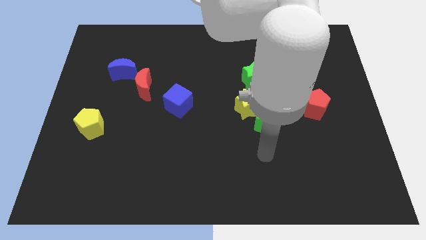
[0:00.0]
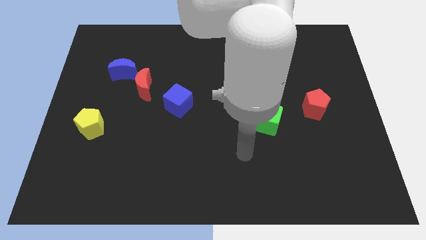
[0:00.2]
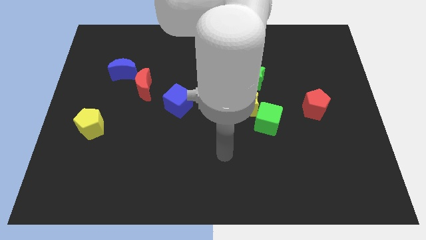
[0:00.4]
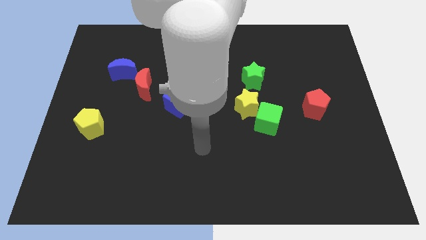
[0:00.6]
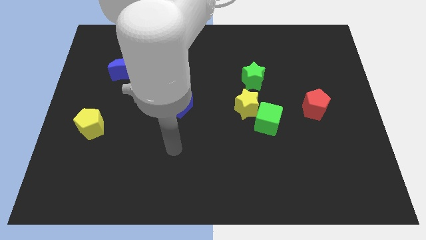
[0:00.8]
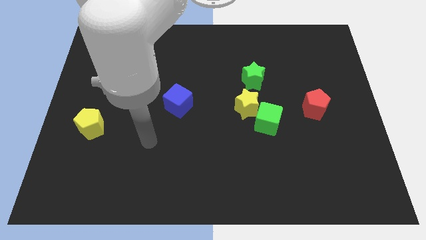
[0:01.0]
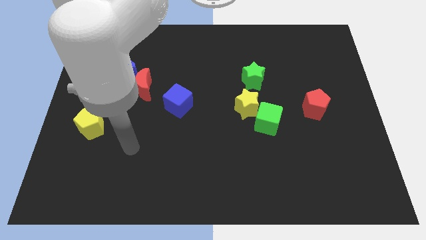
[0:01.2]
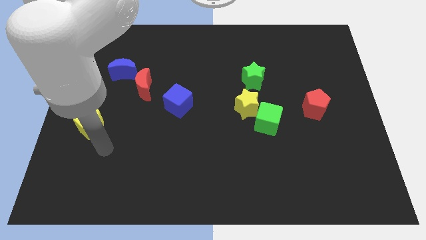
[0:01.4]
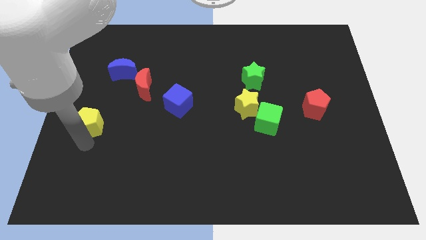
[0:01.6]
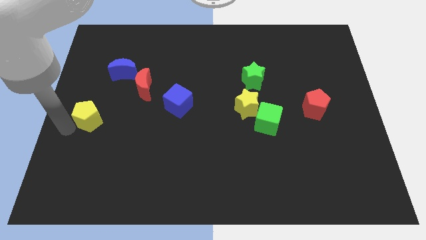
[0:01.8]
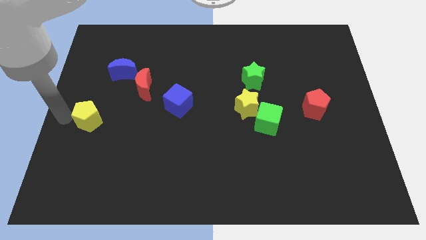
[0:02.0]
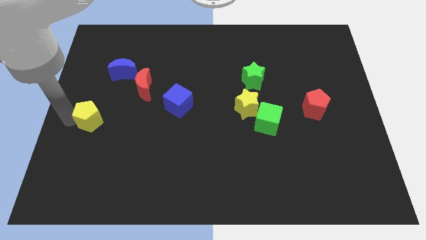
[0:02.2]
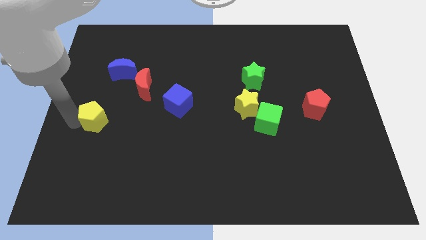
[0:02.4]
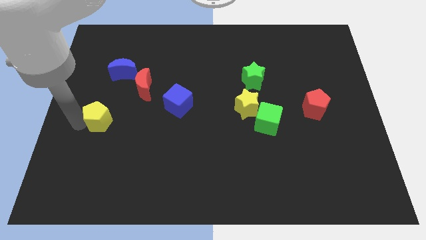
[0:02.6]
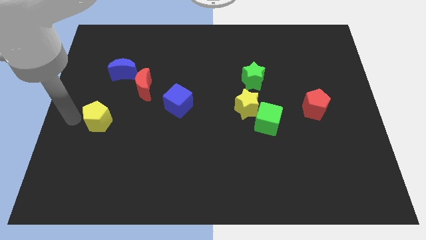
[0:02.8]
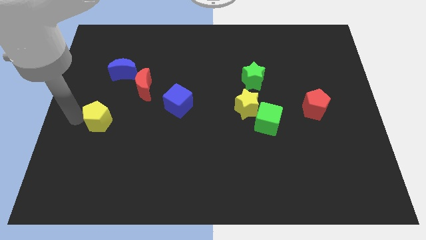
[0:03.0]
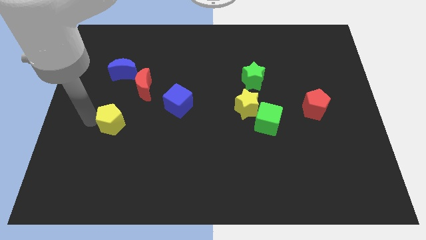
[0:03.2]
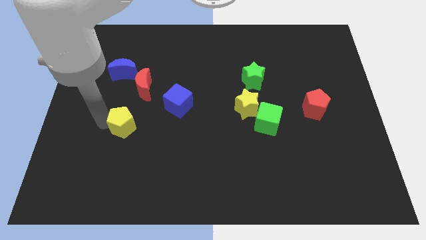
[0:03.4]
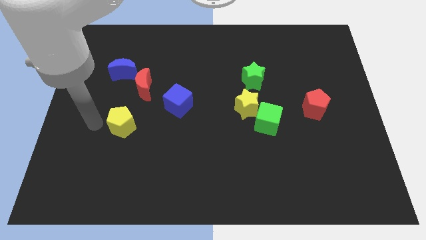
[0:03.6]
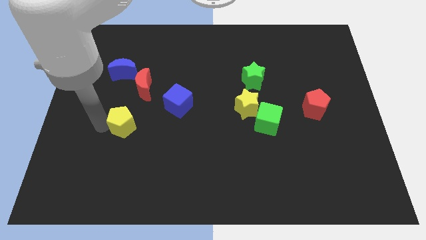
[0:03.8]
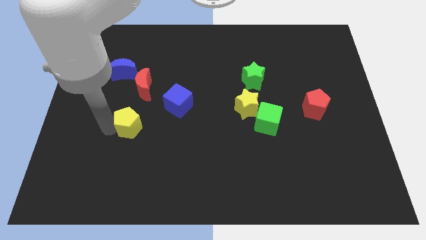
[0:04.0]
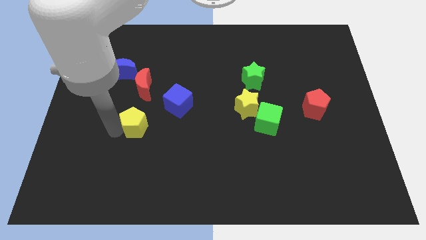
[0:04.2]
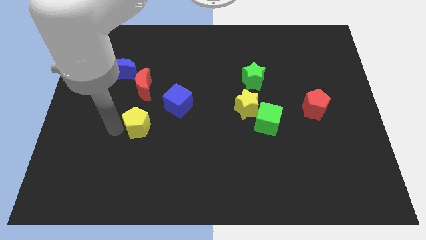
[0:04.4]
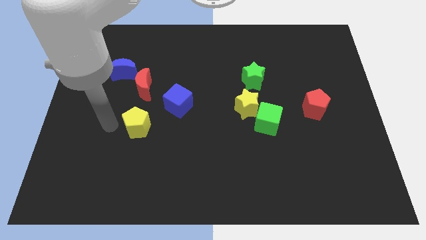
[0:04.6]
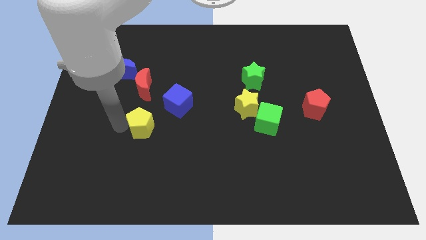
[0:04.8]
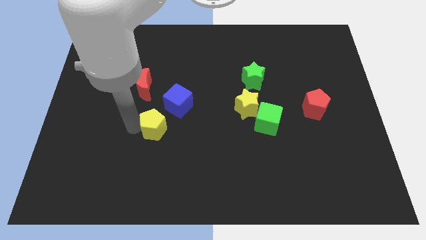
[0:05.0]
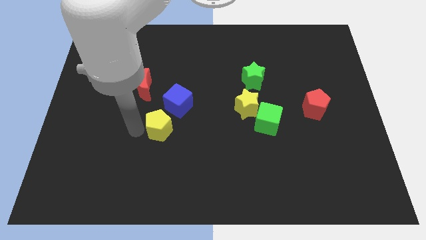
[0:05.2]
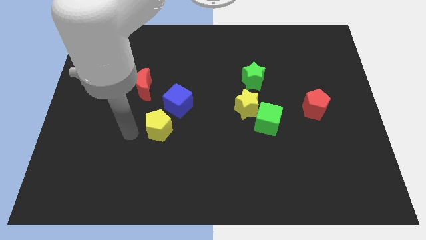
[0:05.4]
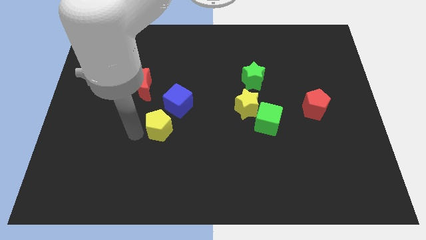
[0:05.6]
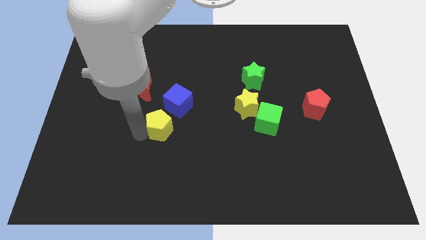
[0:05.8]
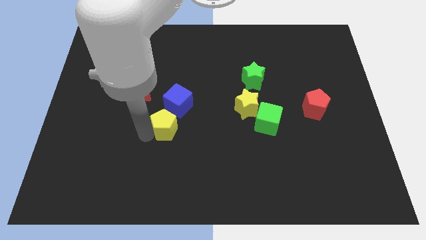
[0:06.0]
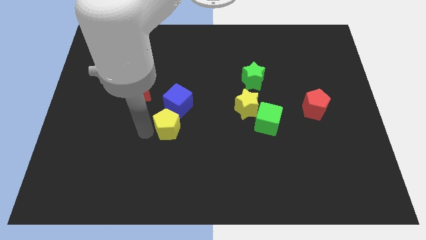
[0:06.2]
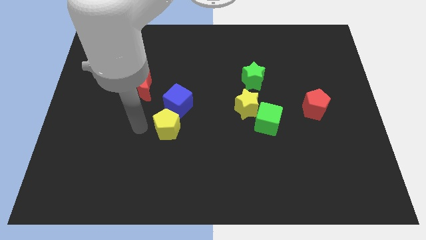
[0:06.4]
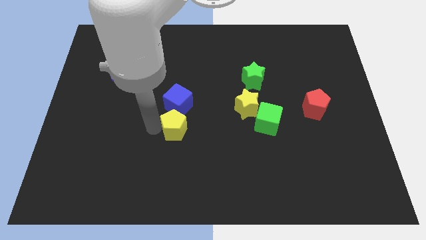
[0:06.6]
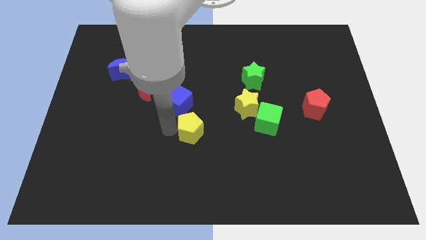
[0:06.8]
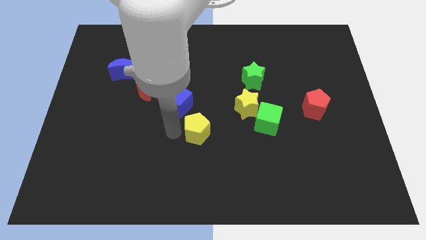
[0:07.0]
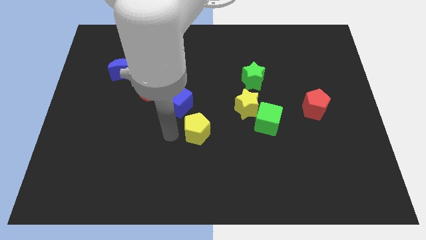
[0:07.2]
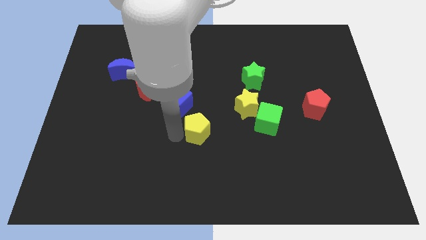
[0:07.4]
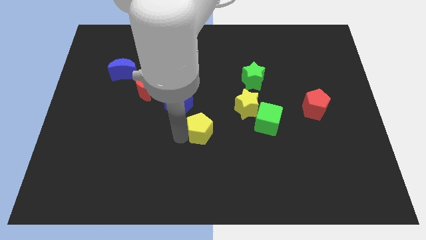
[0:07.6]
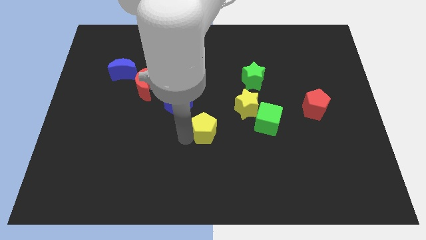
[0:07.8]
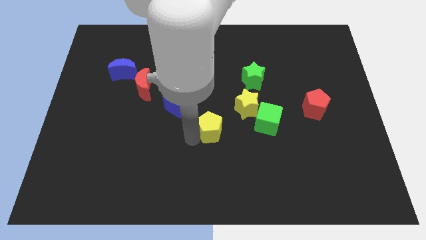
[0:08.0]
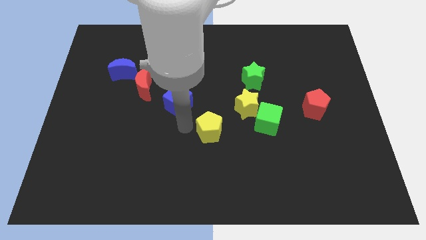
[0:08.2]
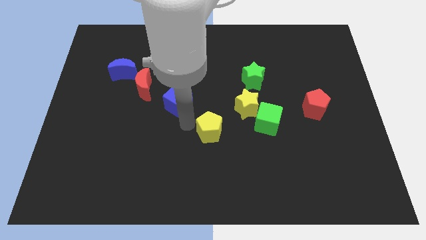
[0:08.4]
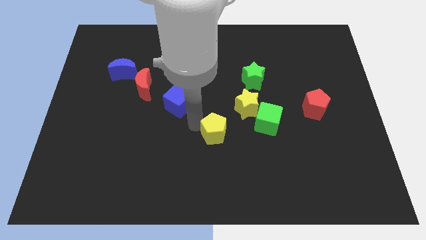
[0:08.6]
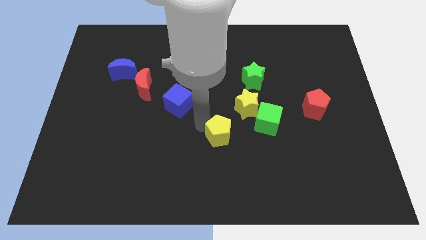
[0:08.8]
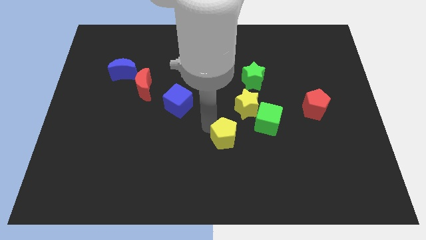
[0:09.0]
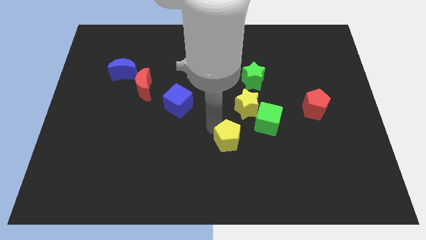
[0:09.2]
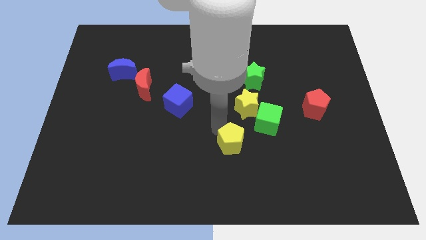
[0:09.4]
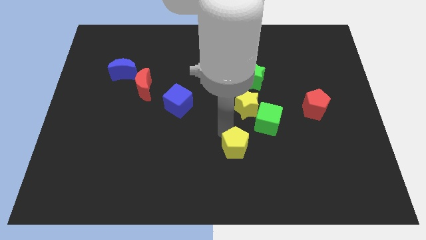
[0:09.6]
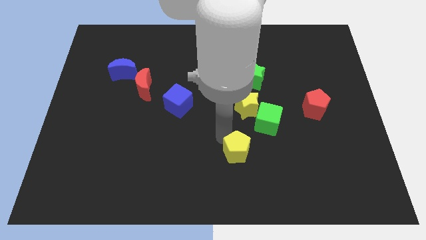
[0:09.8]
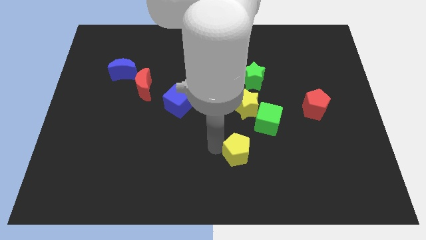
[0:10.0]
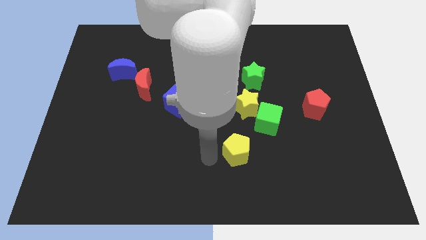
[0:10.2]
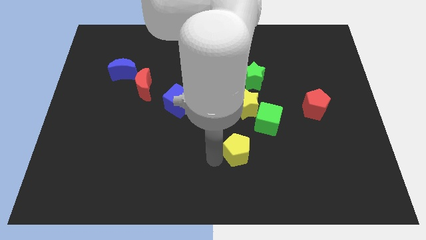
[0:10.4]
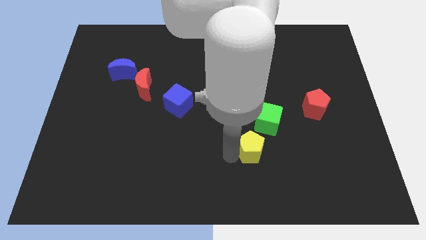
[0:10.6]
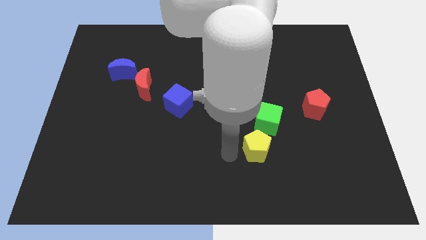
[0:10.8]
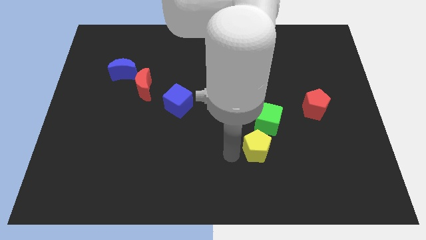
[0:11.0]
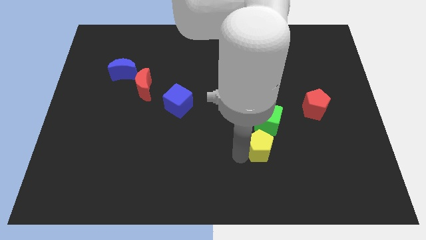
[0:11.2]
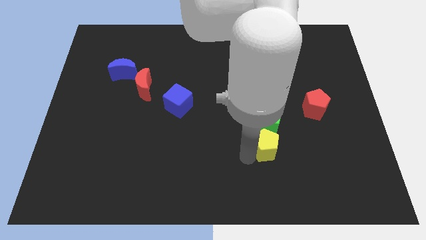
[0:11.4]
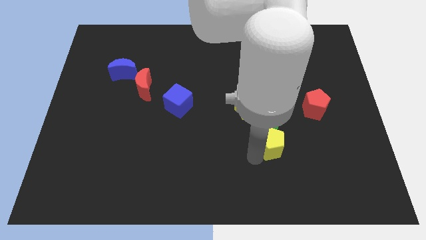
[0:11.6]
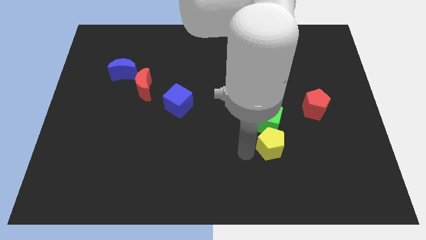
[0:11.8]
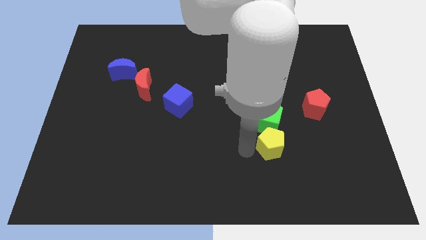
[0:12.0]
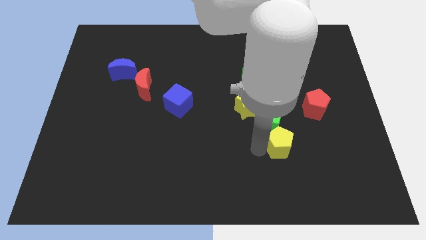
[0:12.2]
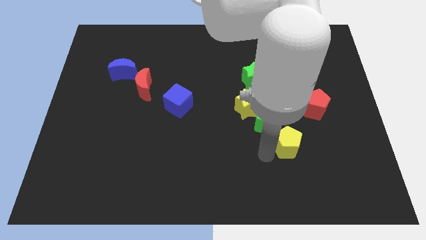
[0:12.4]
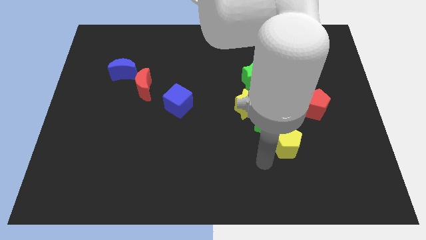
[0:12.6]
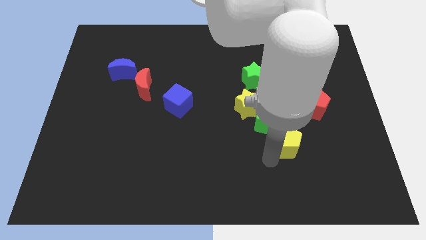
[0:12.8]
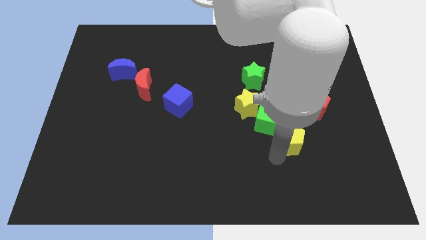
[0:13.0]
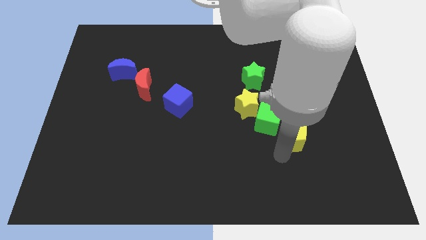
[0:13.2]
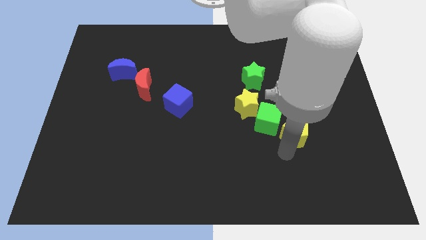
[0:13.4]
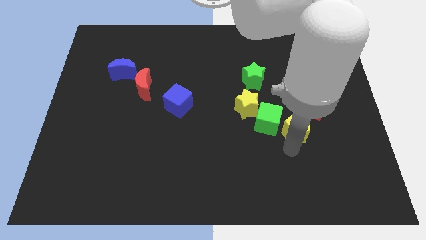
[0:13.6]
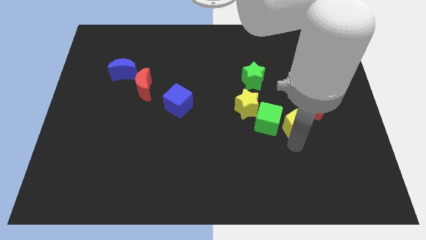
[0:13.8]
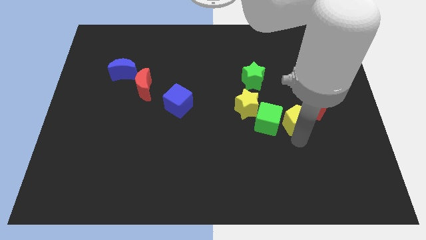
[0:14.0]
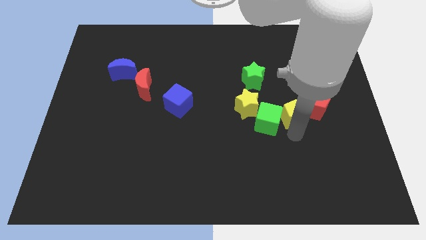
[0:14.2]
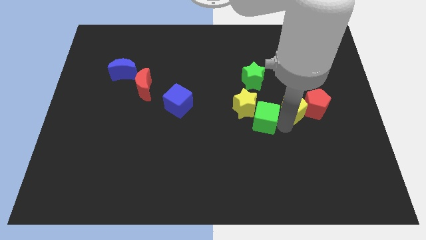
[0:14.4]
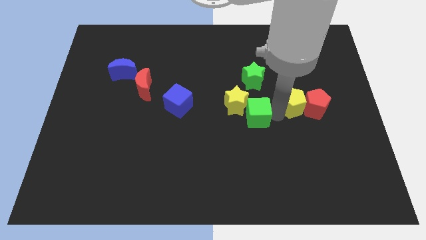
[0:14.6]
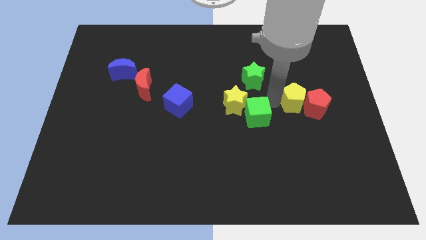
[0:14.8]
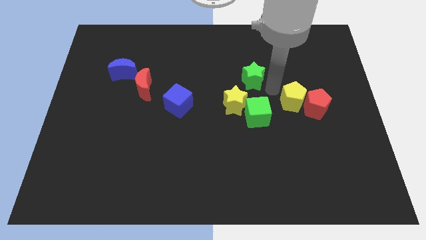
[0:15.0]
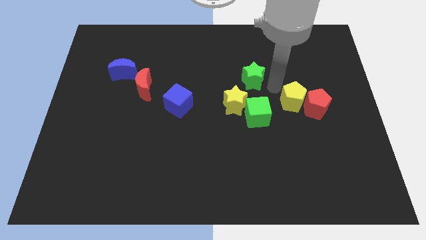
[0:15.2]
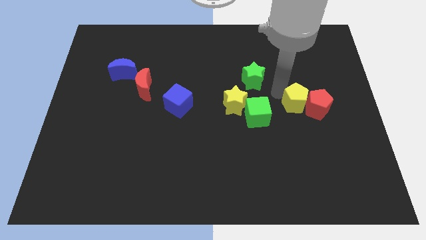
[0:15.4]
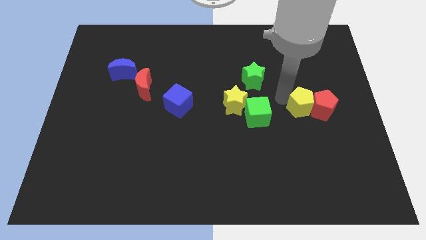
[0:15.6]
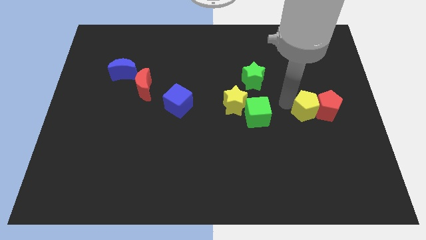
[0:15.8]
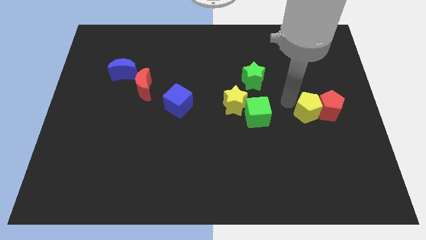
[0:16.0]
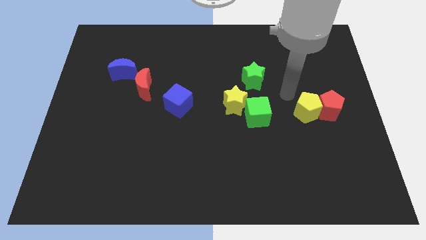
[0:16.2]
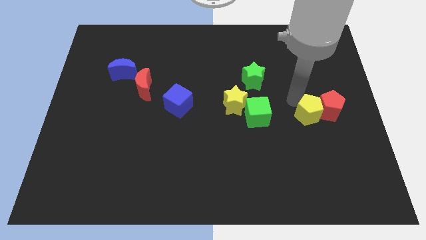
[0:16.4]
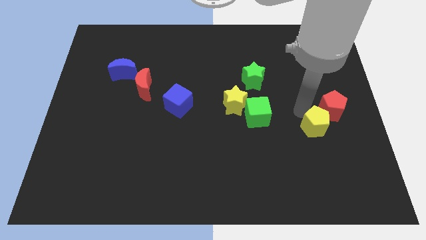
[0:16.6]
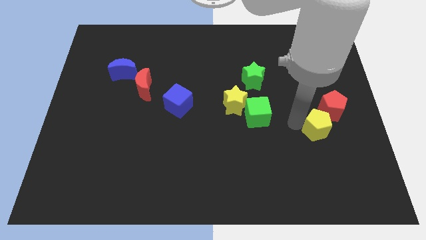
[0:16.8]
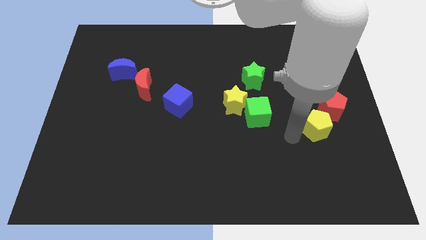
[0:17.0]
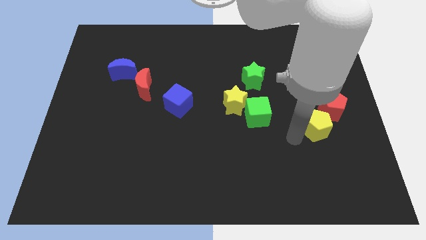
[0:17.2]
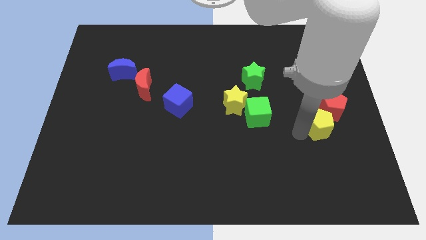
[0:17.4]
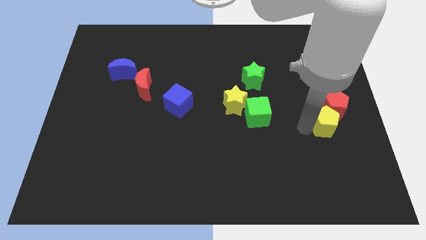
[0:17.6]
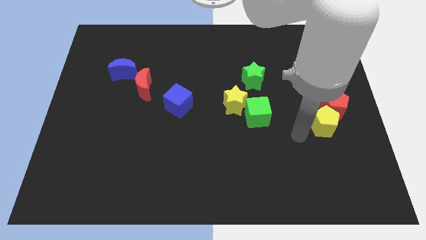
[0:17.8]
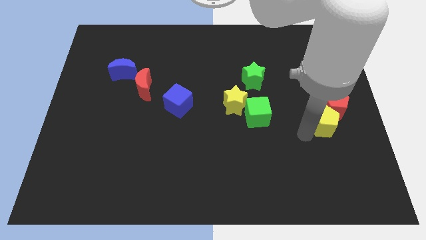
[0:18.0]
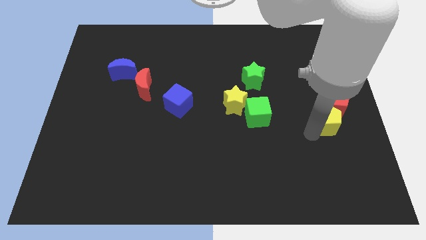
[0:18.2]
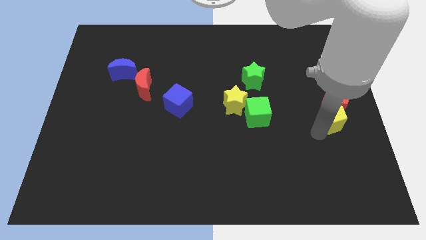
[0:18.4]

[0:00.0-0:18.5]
push the yellow pentagon to the center right
